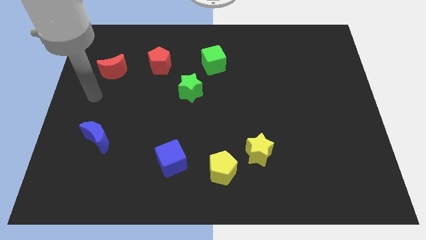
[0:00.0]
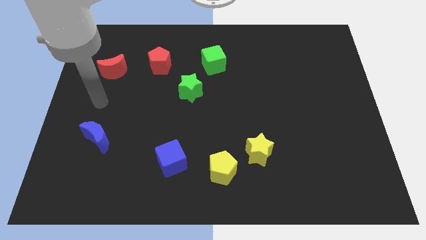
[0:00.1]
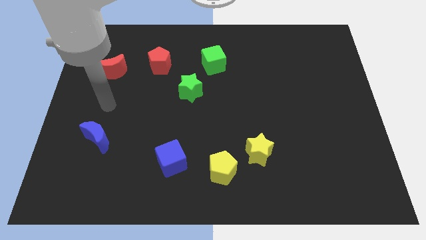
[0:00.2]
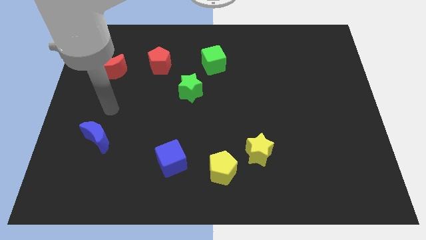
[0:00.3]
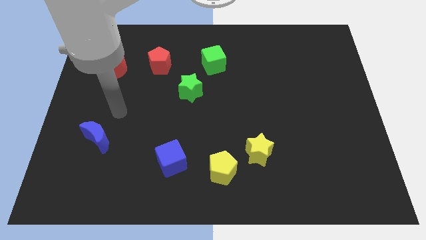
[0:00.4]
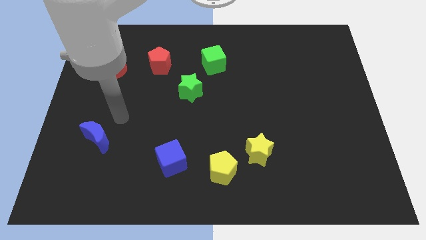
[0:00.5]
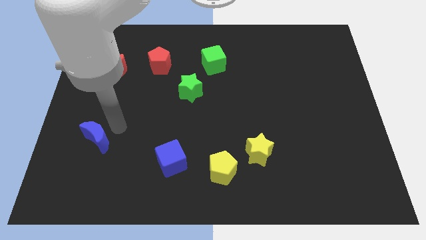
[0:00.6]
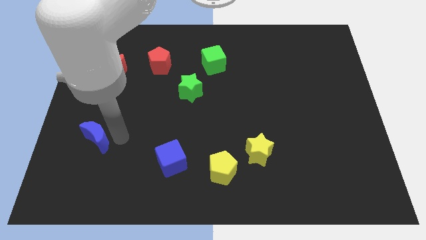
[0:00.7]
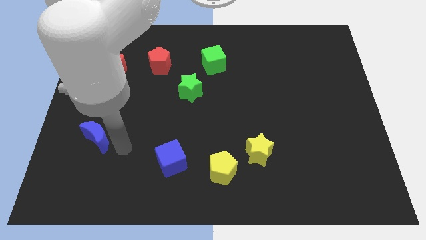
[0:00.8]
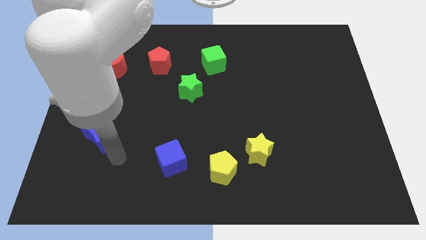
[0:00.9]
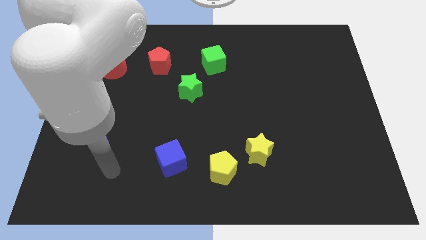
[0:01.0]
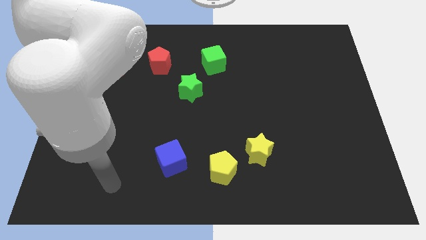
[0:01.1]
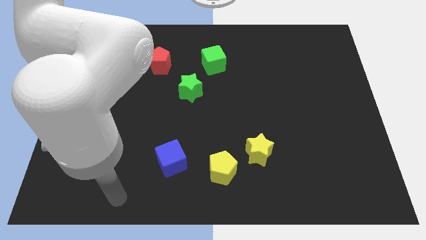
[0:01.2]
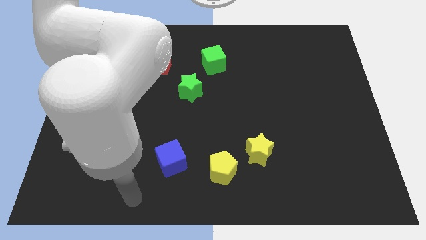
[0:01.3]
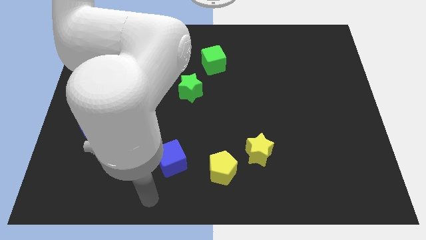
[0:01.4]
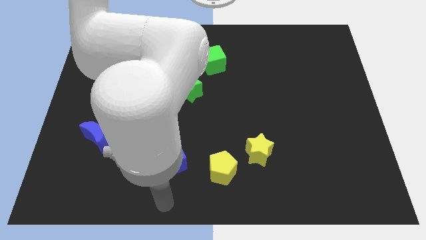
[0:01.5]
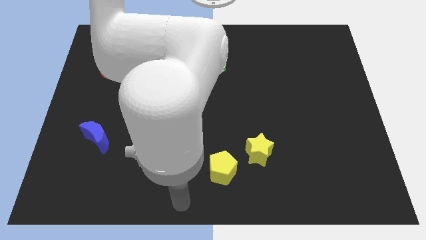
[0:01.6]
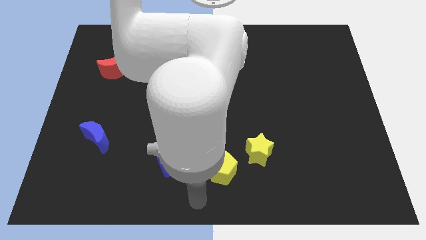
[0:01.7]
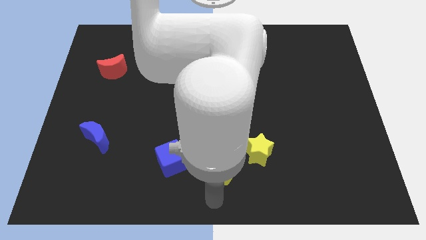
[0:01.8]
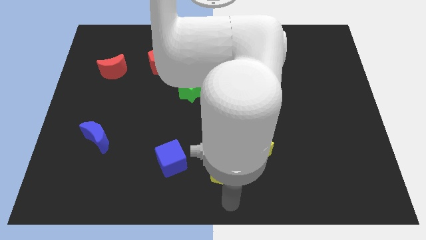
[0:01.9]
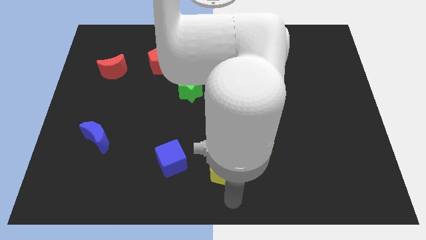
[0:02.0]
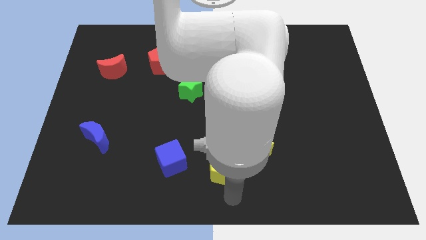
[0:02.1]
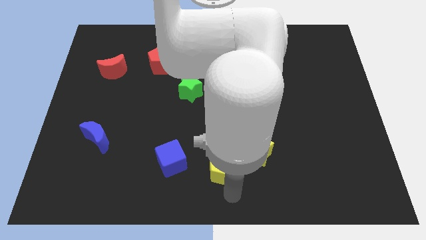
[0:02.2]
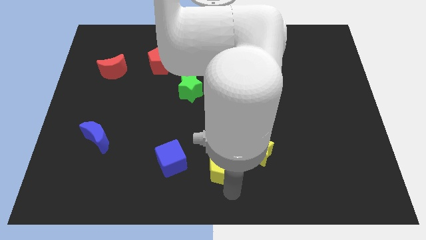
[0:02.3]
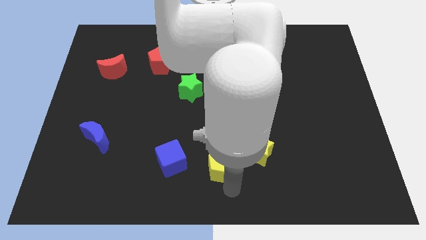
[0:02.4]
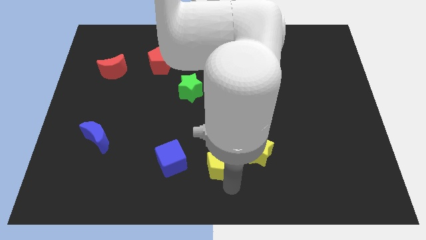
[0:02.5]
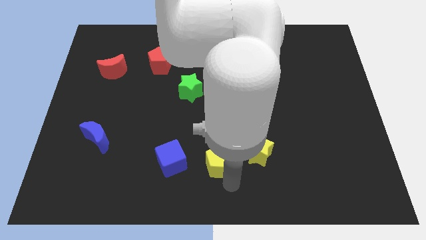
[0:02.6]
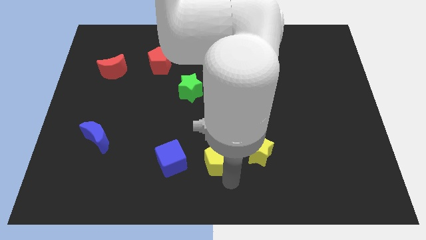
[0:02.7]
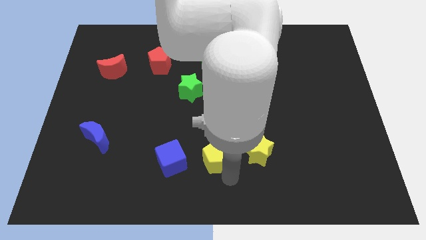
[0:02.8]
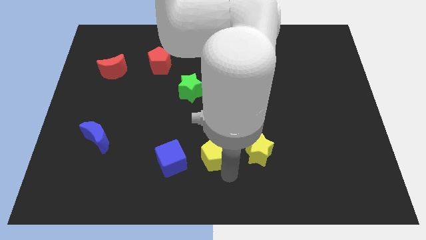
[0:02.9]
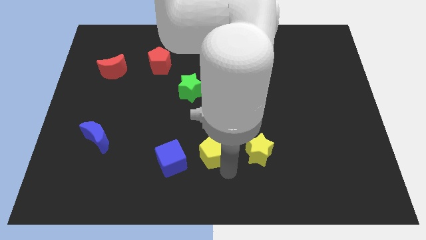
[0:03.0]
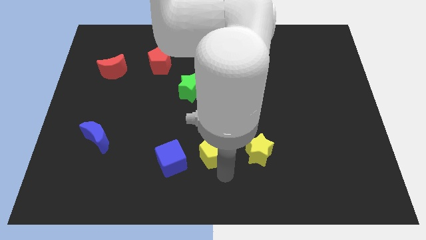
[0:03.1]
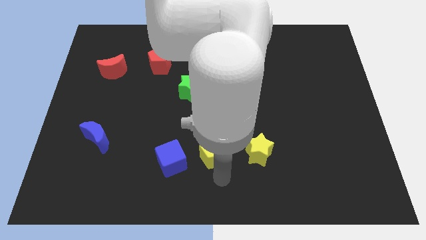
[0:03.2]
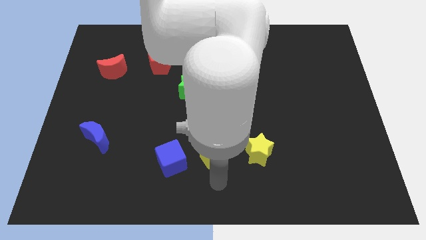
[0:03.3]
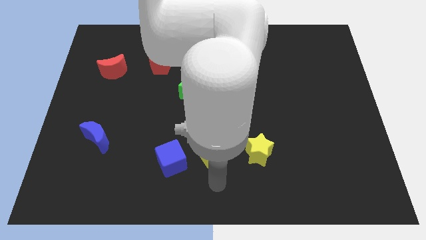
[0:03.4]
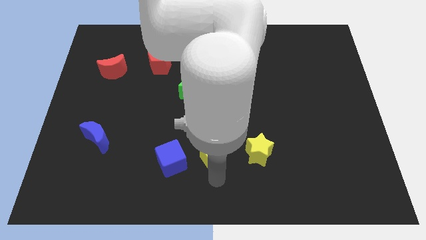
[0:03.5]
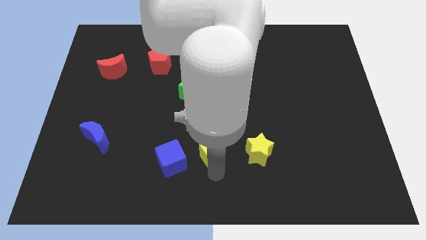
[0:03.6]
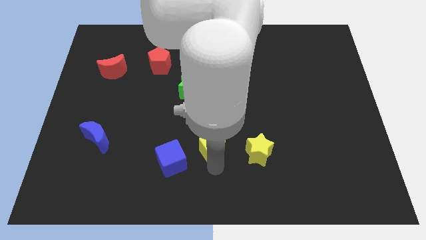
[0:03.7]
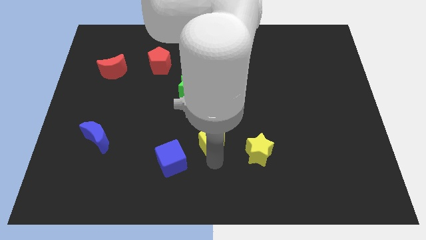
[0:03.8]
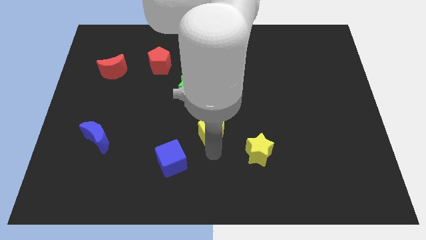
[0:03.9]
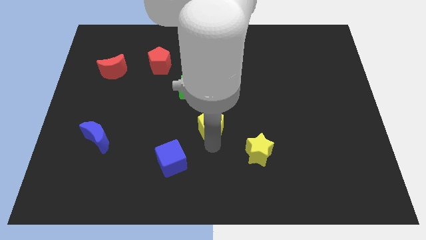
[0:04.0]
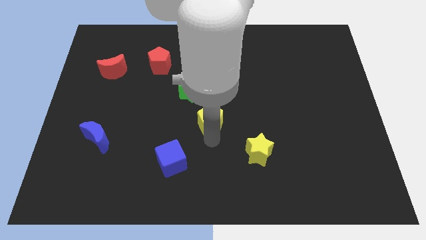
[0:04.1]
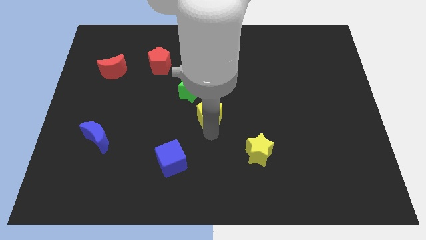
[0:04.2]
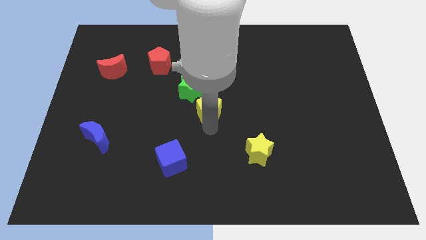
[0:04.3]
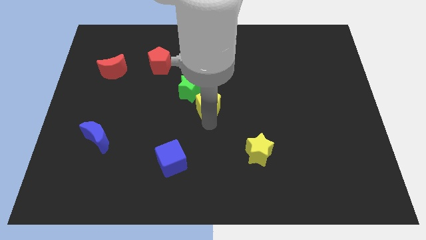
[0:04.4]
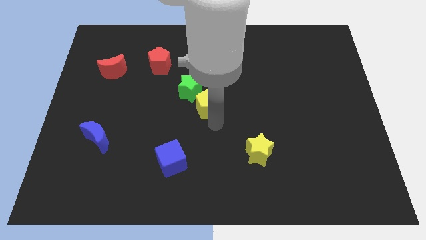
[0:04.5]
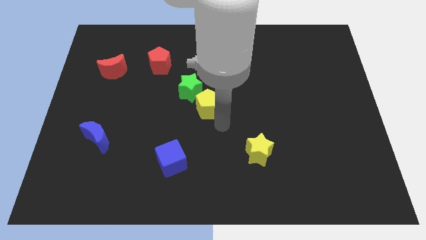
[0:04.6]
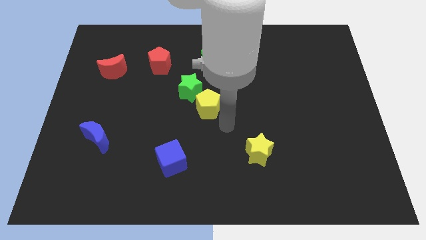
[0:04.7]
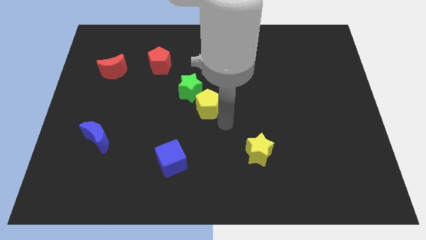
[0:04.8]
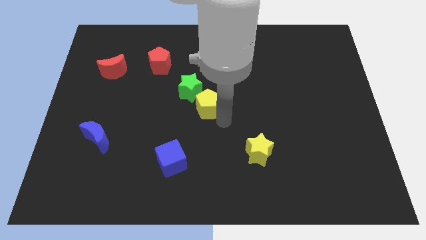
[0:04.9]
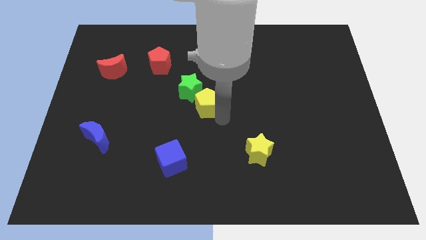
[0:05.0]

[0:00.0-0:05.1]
push the yellow pentagon to the green star

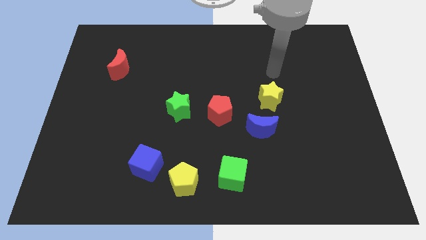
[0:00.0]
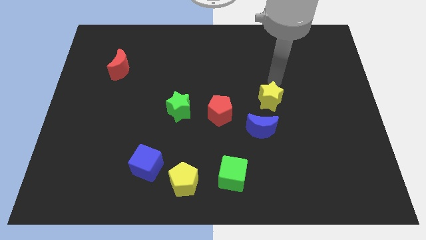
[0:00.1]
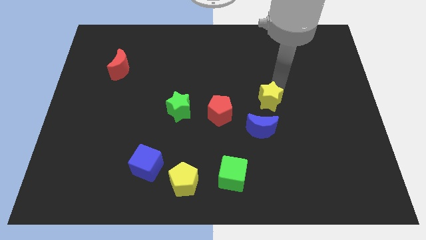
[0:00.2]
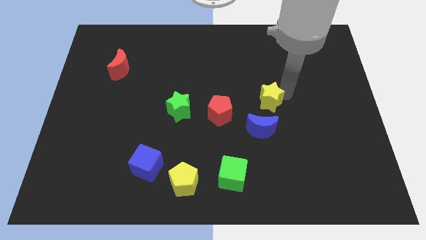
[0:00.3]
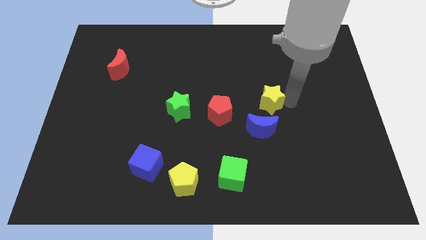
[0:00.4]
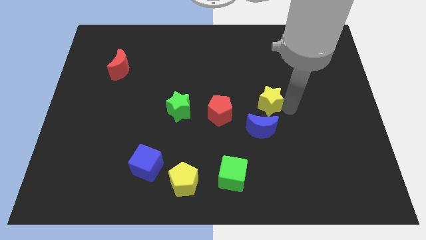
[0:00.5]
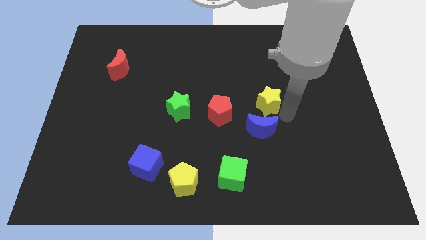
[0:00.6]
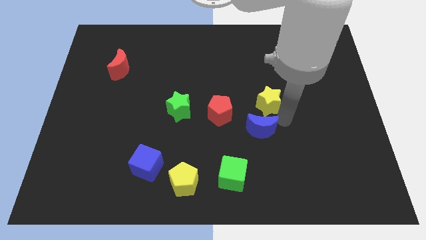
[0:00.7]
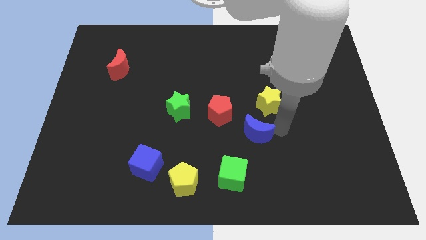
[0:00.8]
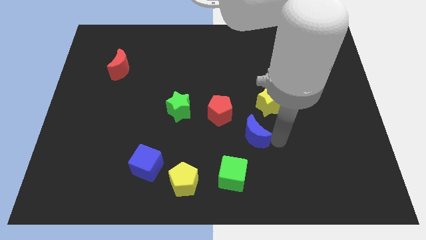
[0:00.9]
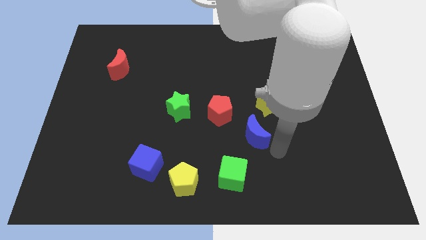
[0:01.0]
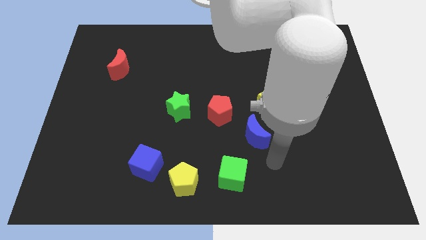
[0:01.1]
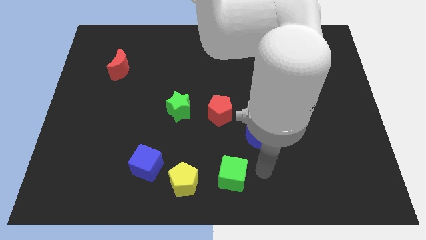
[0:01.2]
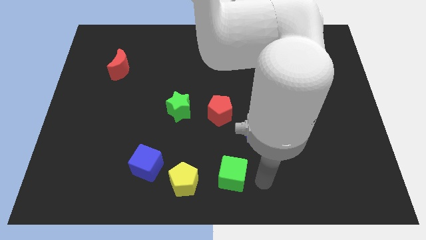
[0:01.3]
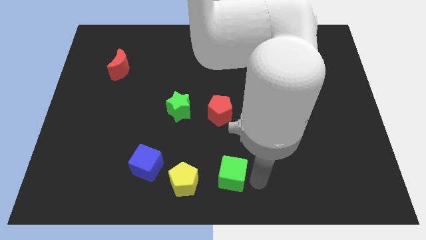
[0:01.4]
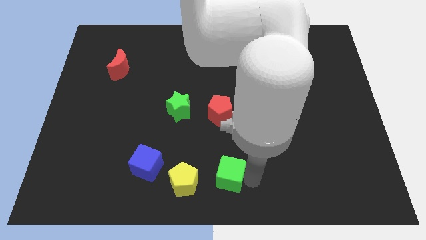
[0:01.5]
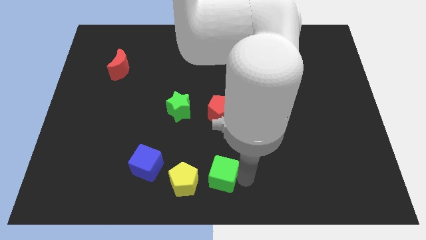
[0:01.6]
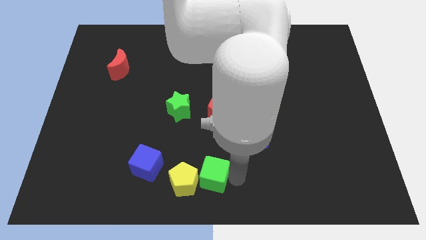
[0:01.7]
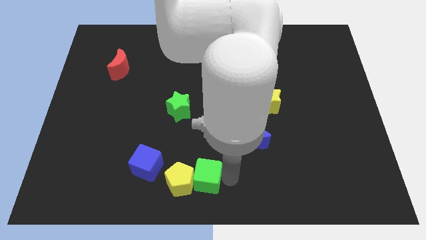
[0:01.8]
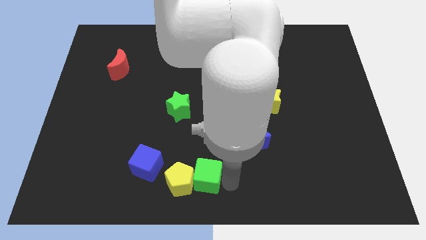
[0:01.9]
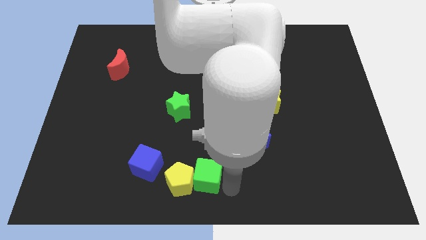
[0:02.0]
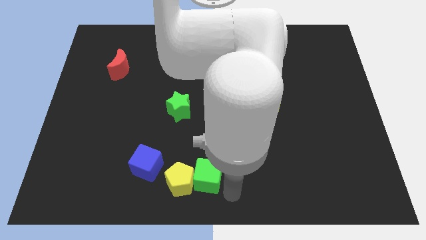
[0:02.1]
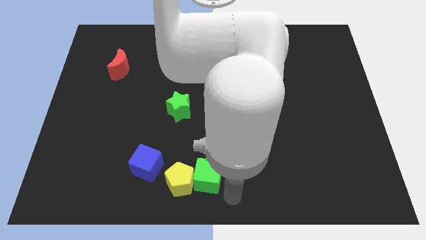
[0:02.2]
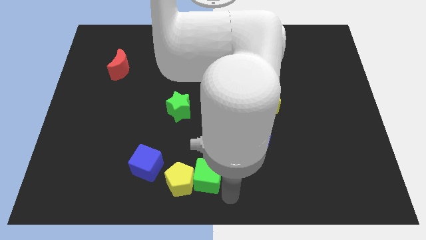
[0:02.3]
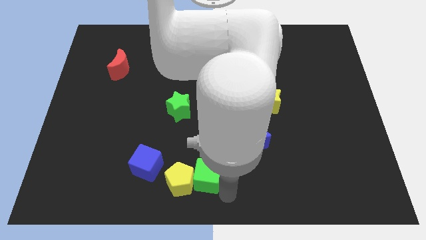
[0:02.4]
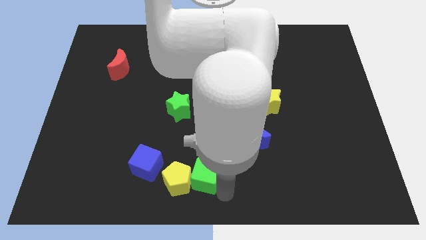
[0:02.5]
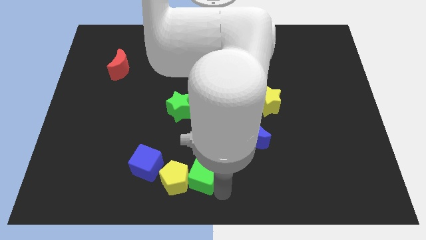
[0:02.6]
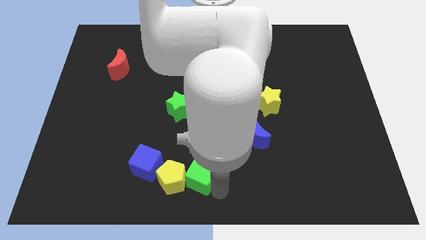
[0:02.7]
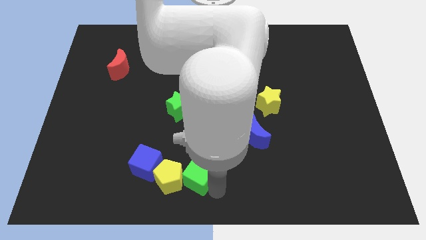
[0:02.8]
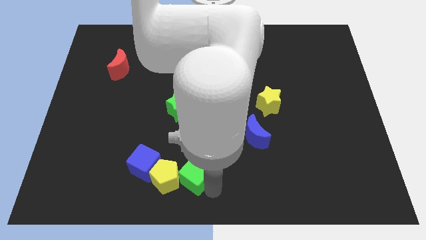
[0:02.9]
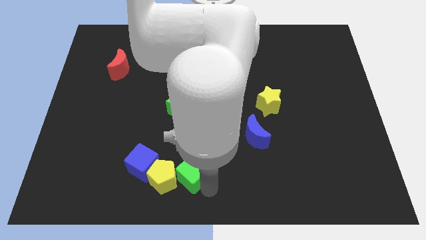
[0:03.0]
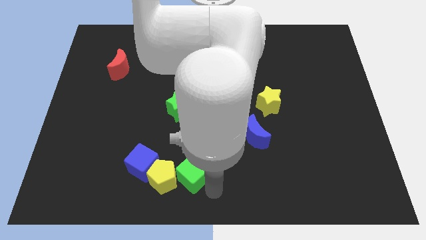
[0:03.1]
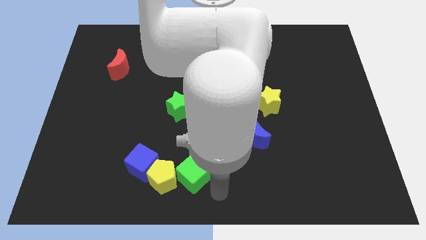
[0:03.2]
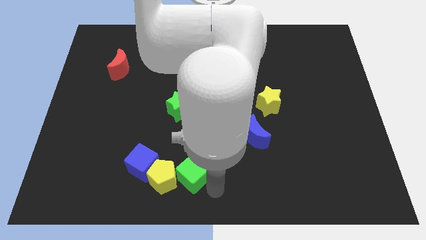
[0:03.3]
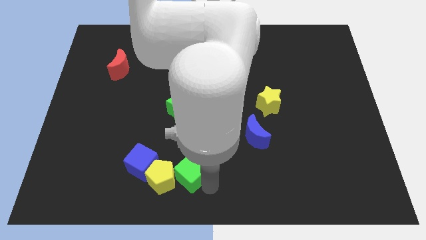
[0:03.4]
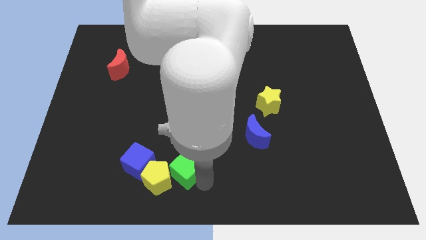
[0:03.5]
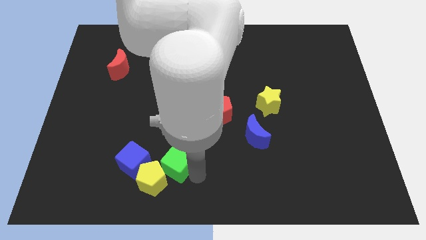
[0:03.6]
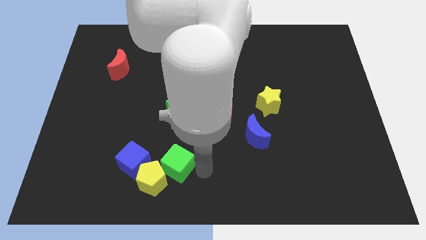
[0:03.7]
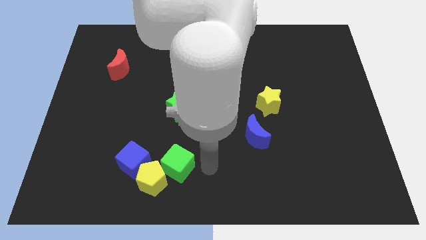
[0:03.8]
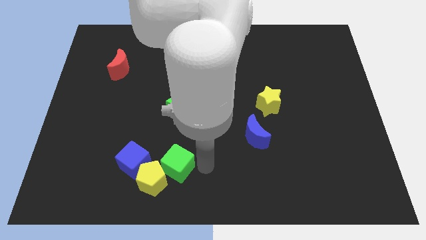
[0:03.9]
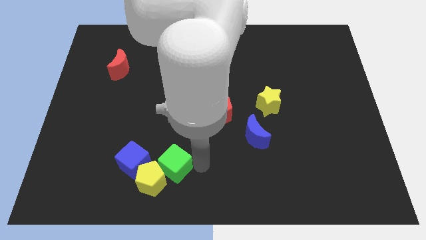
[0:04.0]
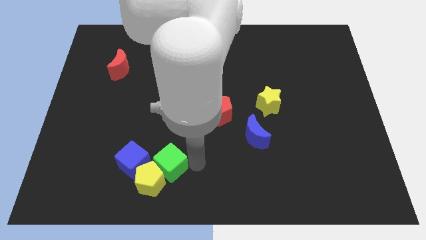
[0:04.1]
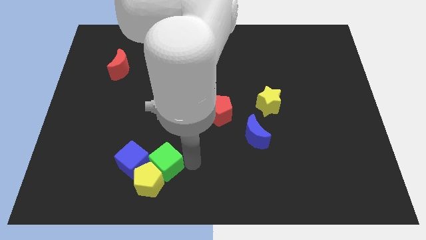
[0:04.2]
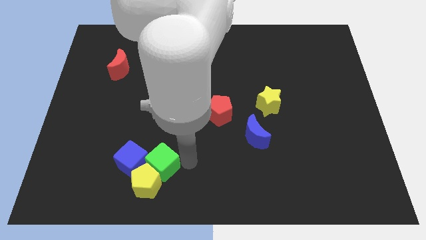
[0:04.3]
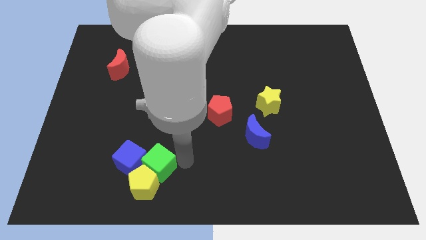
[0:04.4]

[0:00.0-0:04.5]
put the green cube close to the blue cube
